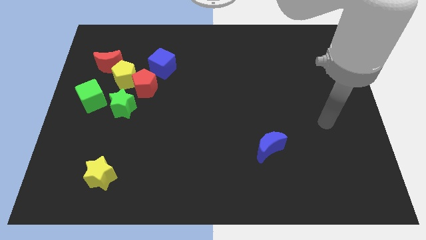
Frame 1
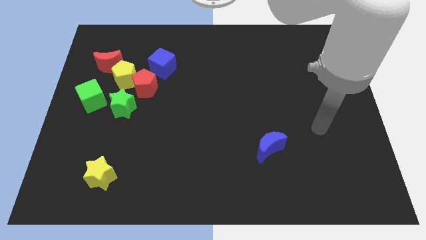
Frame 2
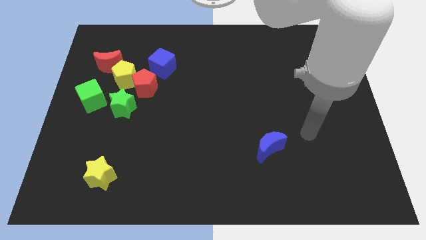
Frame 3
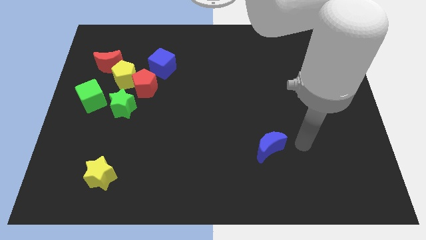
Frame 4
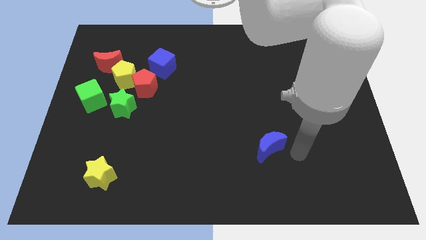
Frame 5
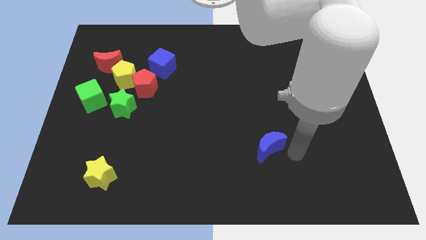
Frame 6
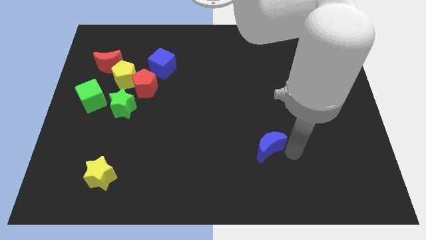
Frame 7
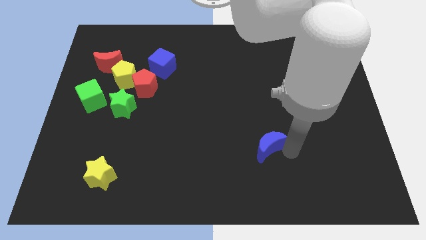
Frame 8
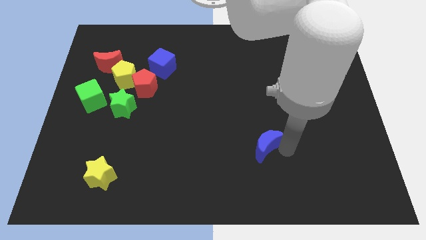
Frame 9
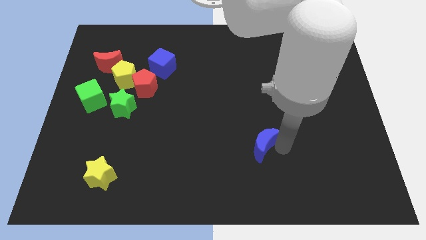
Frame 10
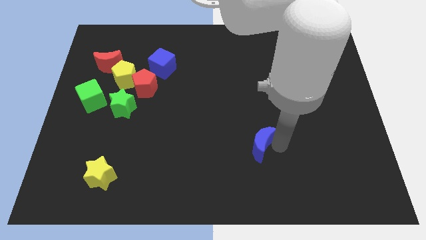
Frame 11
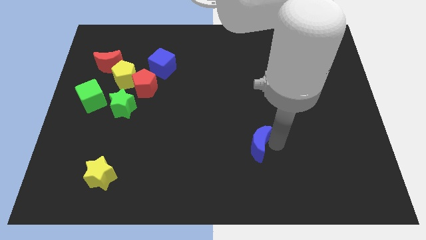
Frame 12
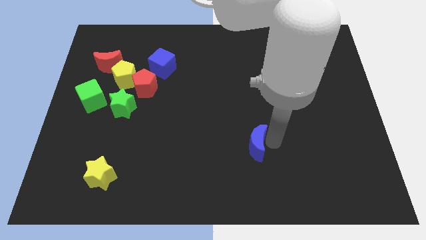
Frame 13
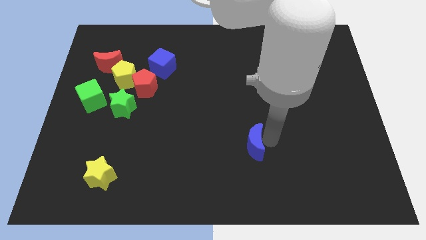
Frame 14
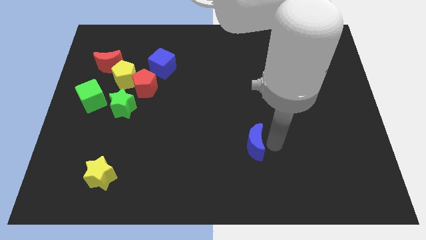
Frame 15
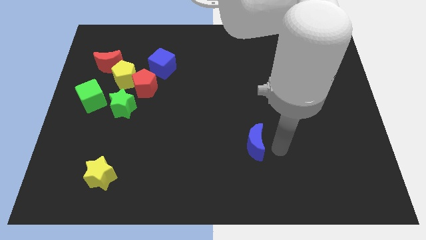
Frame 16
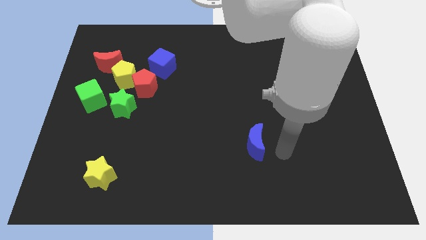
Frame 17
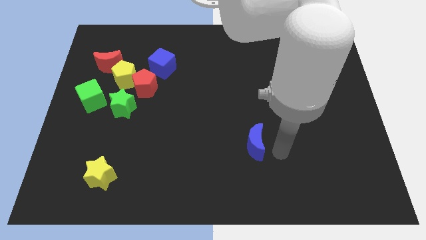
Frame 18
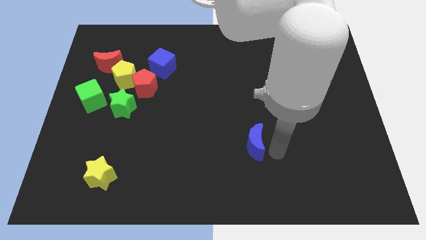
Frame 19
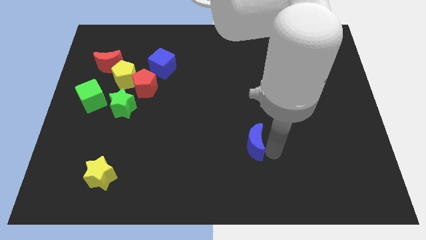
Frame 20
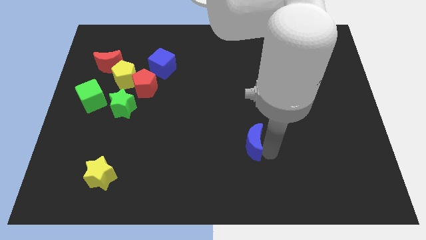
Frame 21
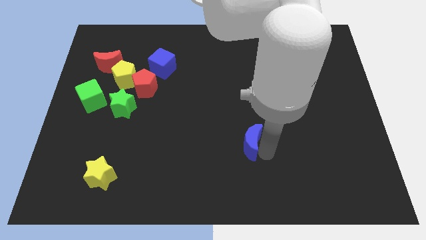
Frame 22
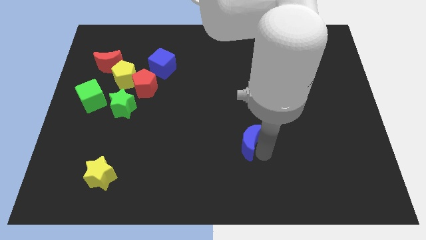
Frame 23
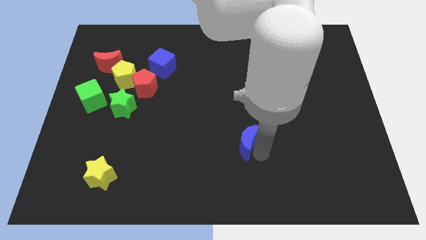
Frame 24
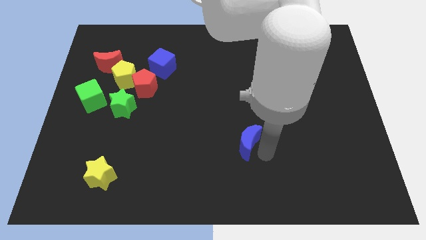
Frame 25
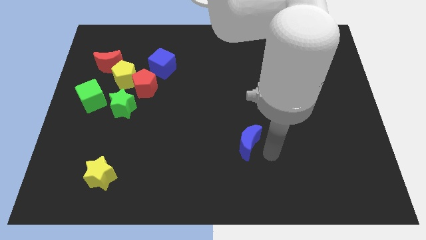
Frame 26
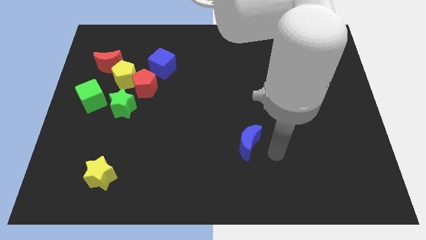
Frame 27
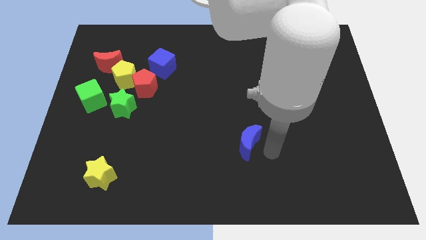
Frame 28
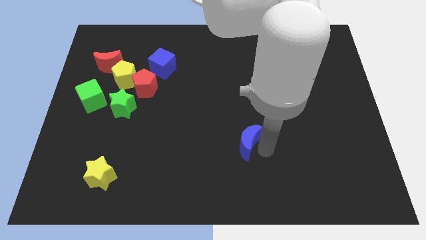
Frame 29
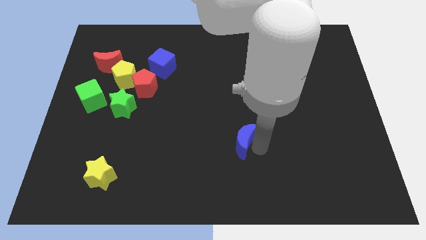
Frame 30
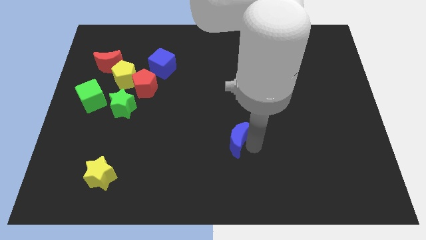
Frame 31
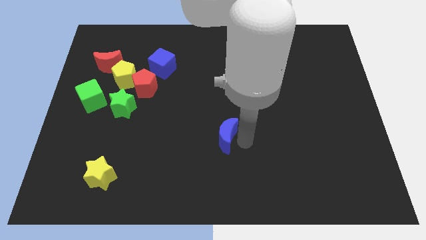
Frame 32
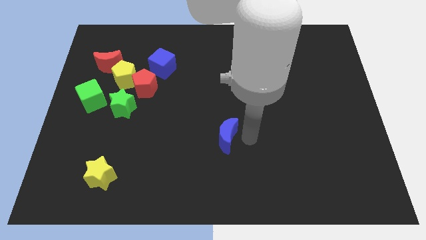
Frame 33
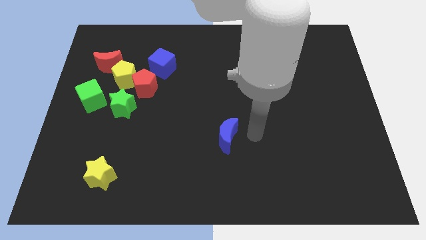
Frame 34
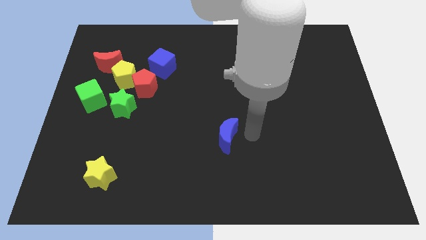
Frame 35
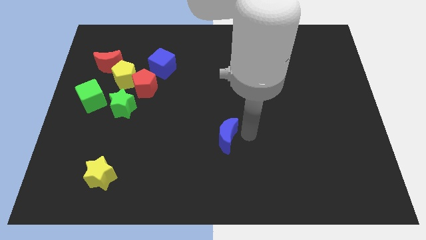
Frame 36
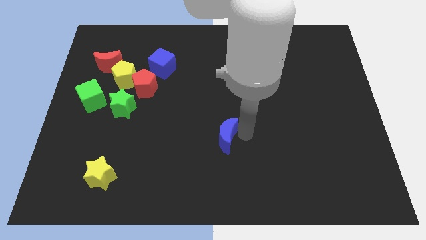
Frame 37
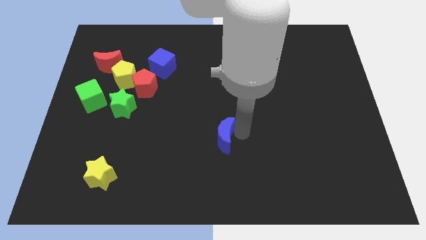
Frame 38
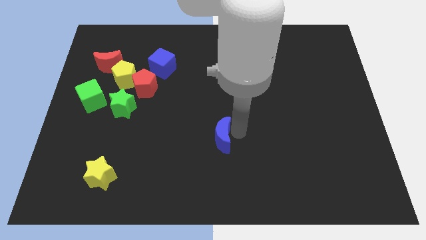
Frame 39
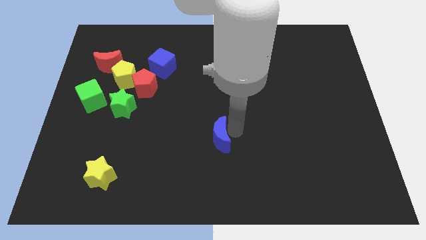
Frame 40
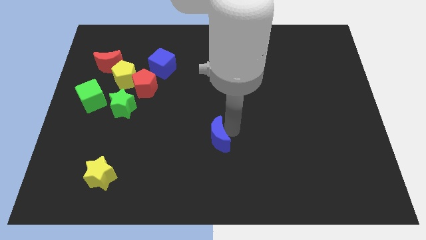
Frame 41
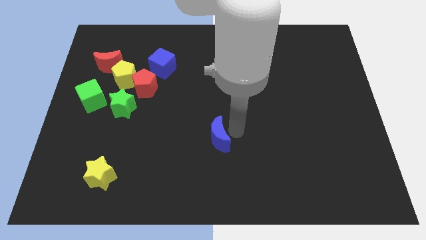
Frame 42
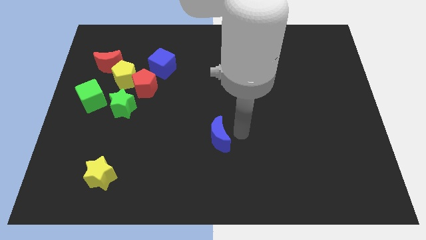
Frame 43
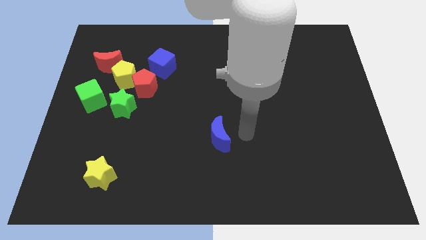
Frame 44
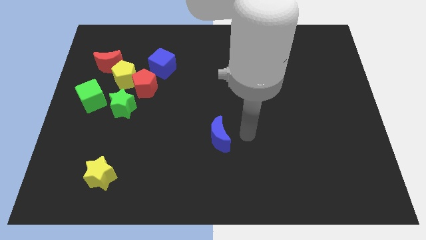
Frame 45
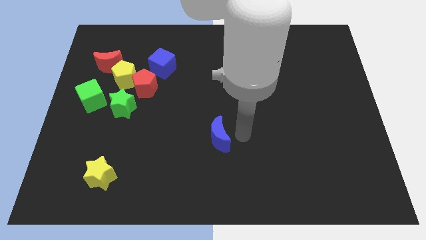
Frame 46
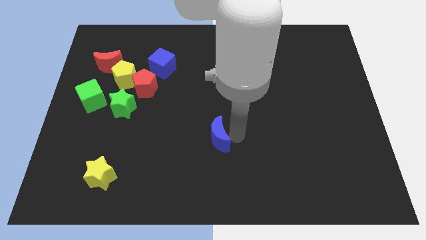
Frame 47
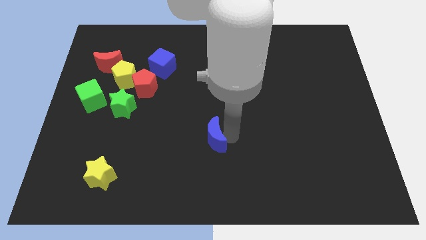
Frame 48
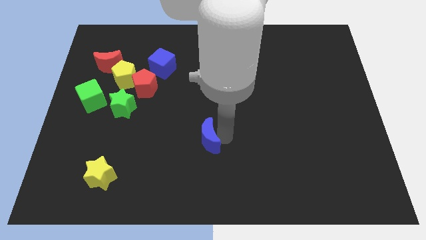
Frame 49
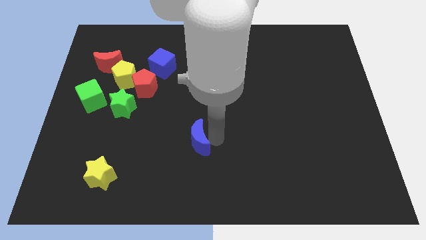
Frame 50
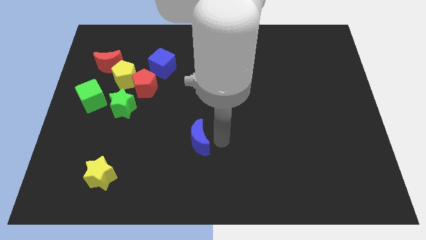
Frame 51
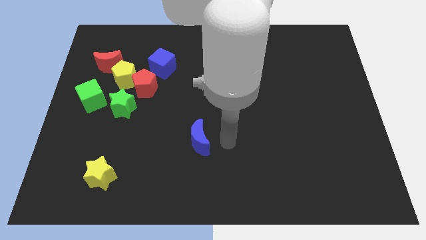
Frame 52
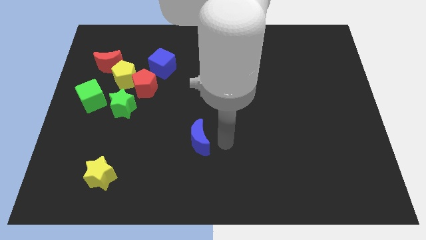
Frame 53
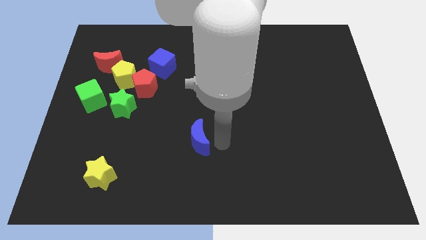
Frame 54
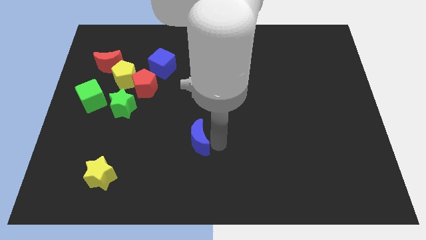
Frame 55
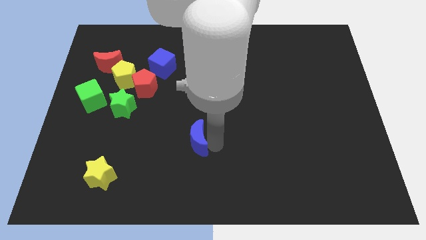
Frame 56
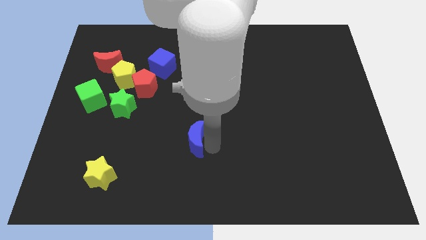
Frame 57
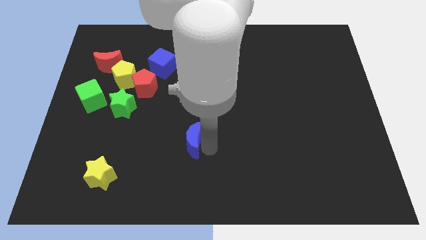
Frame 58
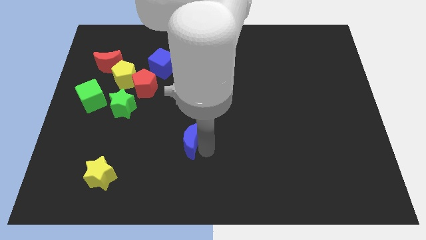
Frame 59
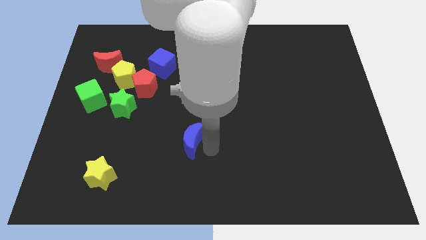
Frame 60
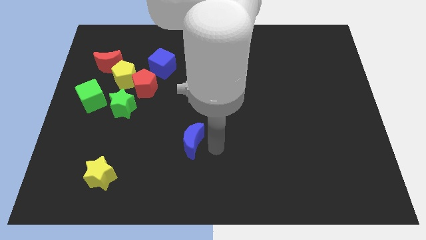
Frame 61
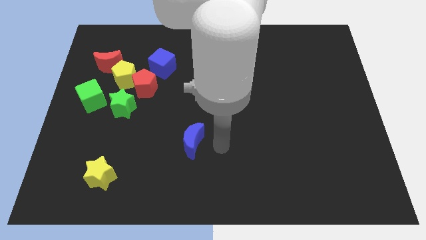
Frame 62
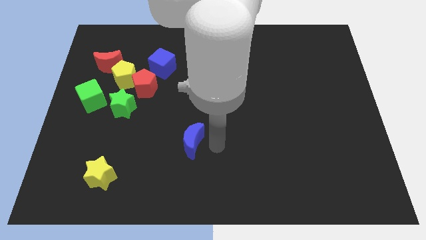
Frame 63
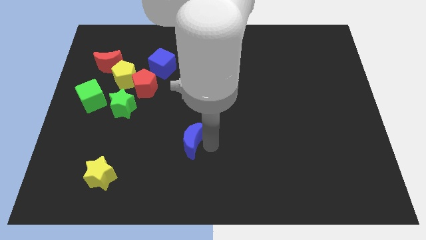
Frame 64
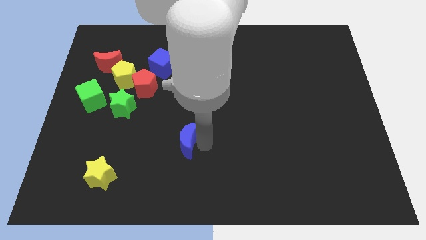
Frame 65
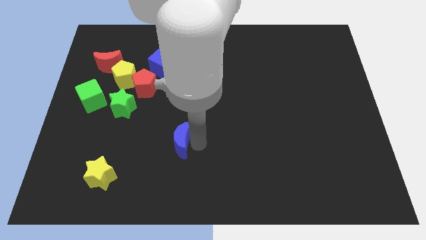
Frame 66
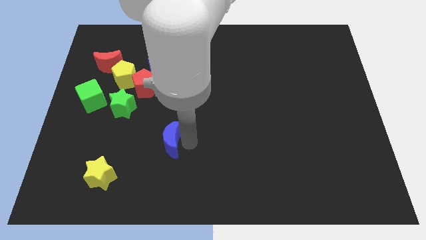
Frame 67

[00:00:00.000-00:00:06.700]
slide the blue moon to the left

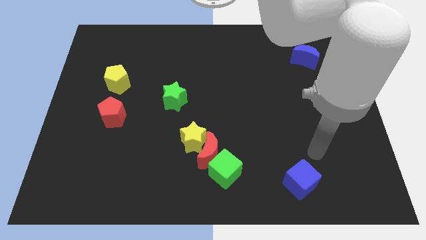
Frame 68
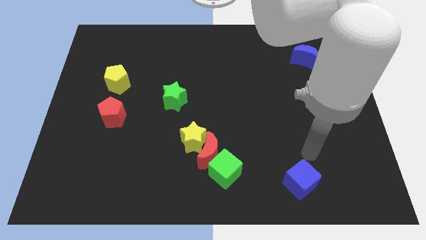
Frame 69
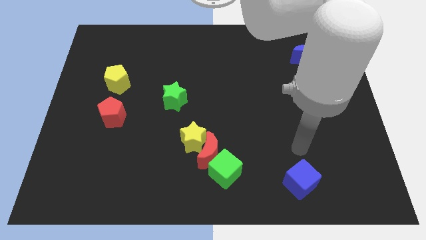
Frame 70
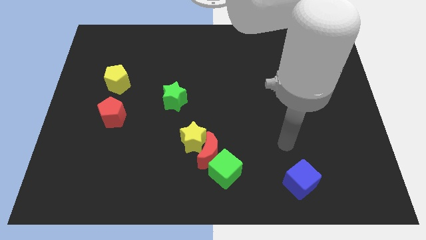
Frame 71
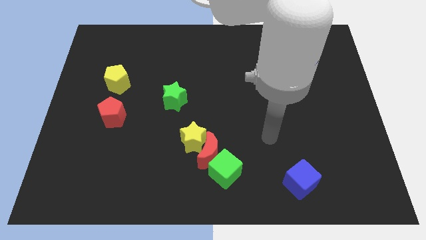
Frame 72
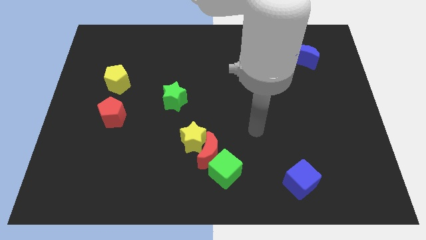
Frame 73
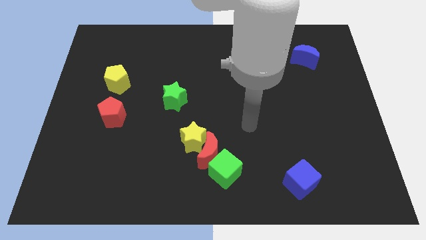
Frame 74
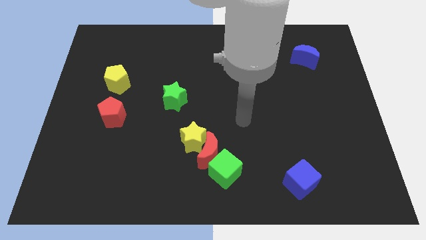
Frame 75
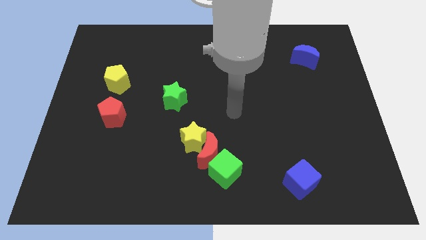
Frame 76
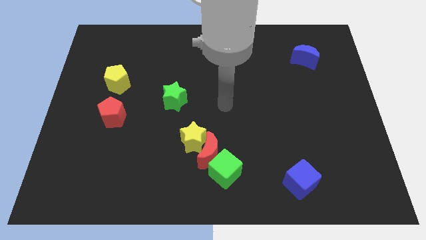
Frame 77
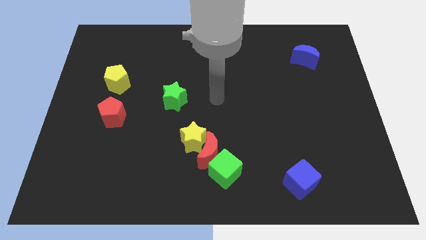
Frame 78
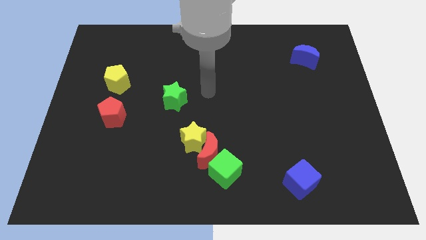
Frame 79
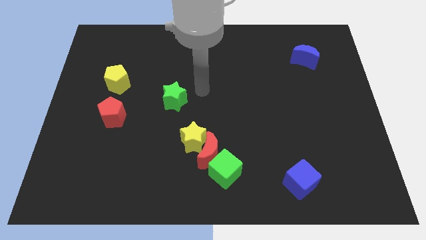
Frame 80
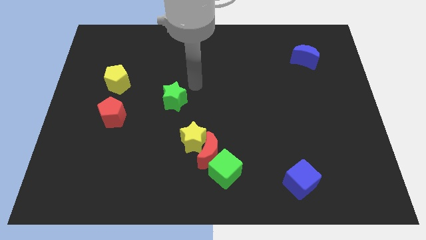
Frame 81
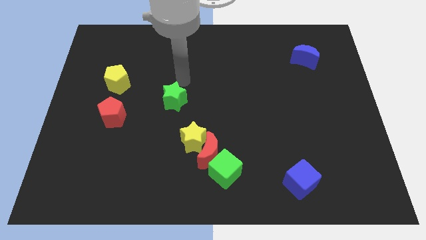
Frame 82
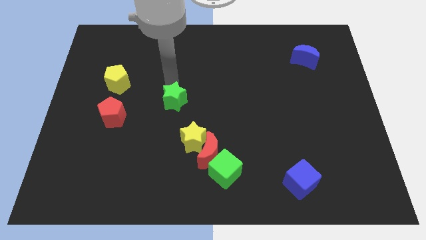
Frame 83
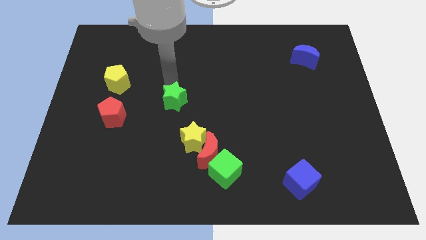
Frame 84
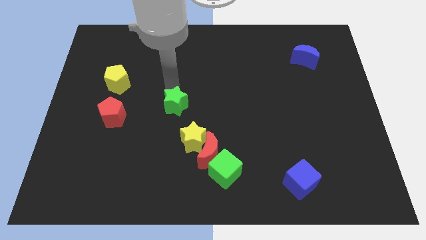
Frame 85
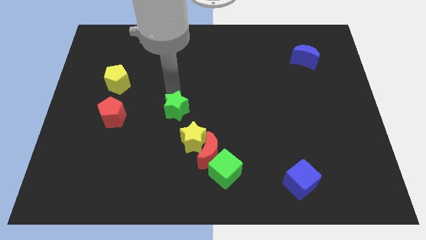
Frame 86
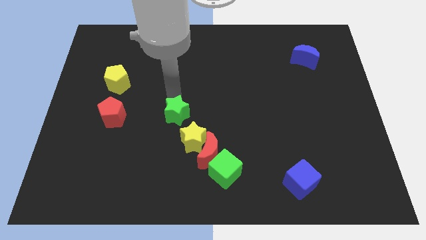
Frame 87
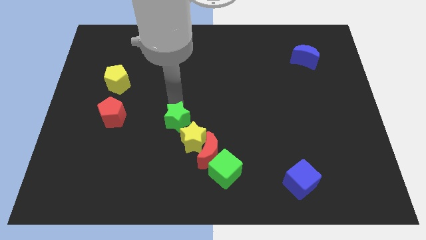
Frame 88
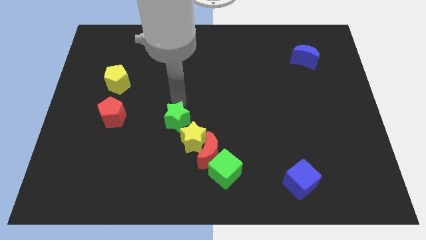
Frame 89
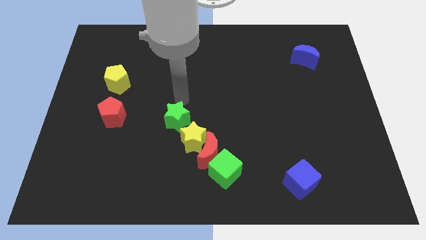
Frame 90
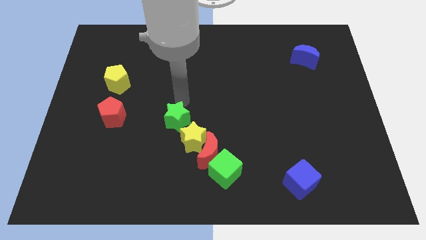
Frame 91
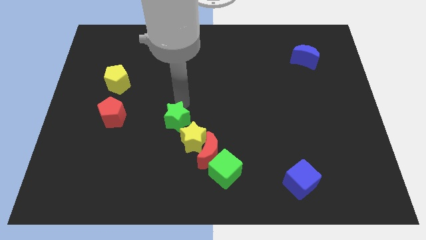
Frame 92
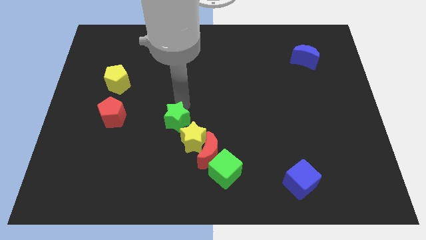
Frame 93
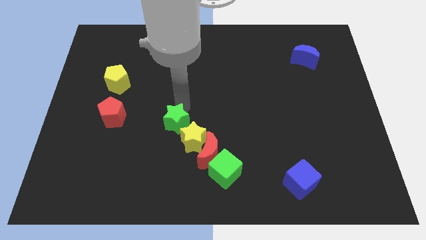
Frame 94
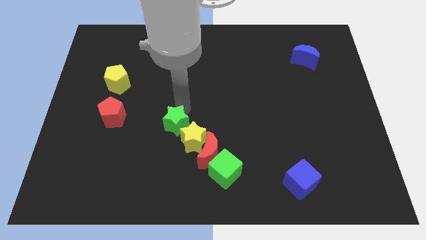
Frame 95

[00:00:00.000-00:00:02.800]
slide the green star slightly downwards
